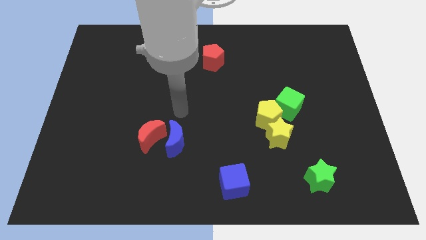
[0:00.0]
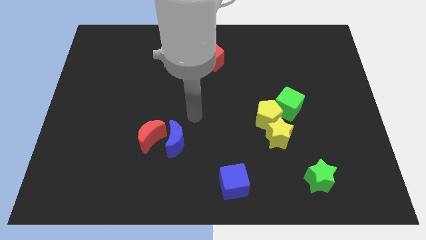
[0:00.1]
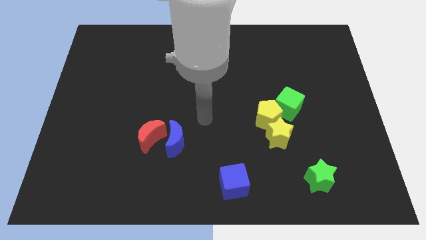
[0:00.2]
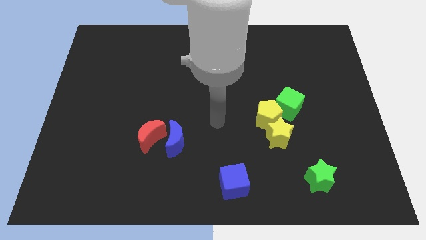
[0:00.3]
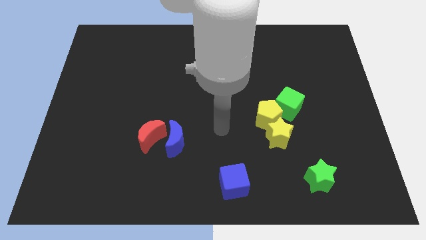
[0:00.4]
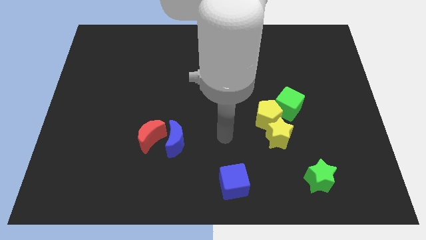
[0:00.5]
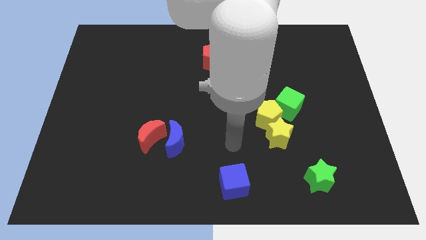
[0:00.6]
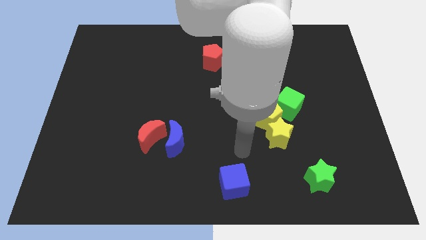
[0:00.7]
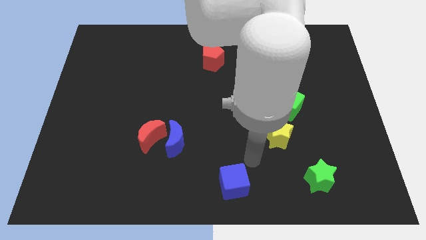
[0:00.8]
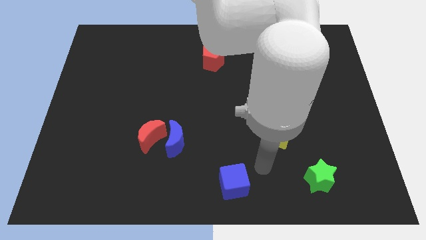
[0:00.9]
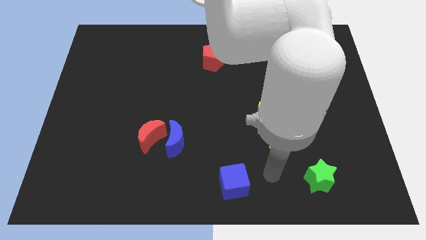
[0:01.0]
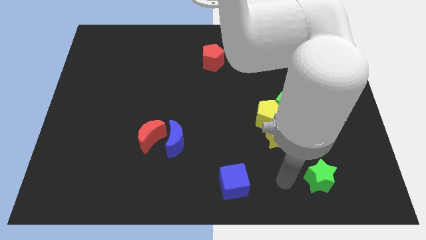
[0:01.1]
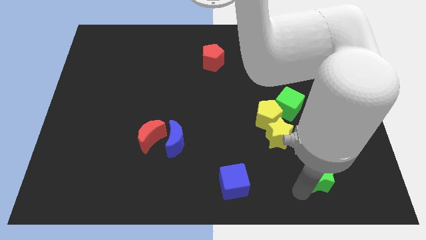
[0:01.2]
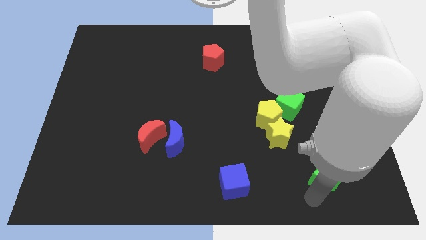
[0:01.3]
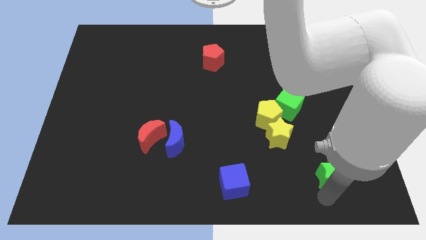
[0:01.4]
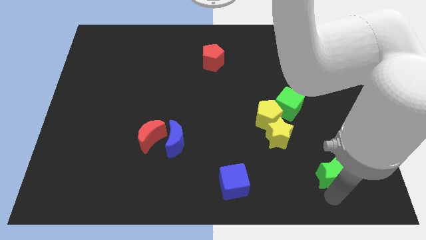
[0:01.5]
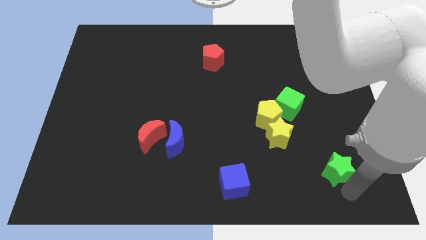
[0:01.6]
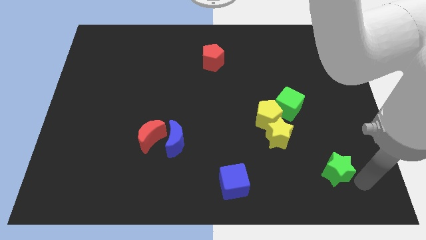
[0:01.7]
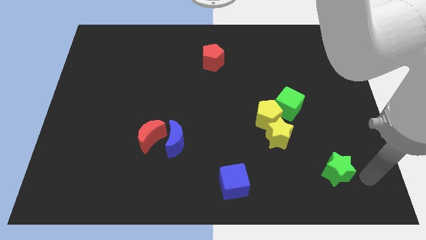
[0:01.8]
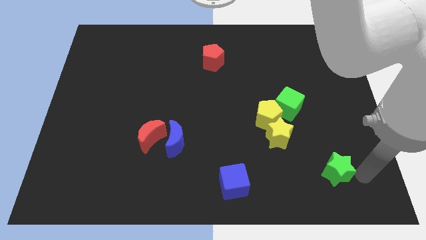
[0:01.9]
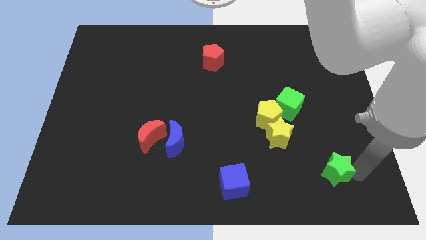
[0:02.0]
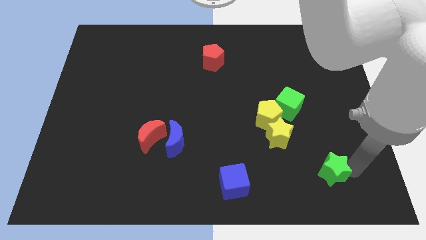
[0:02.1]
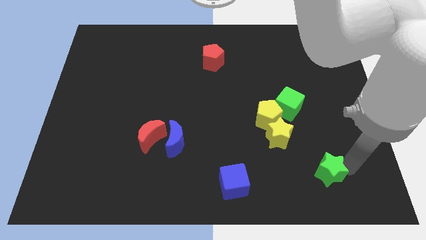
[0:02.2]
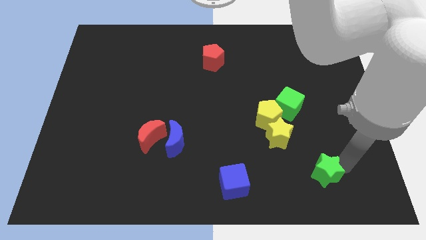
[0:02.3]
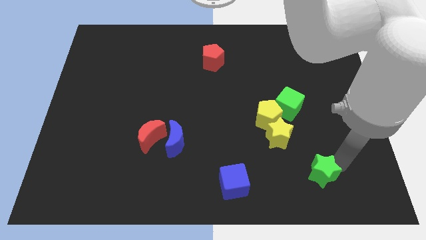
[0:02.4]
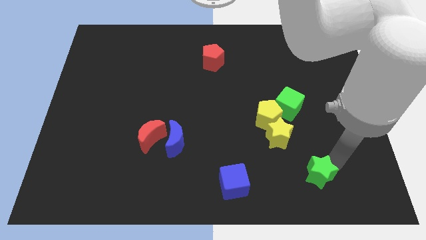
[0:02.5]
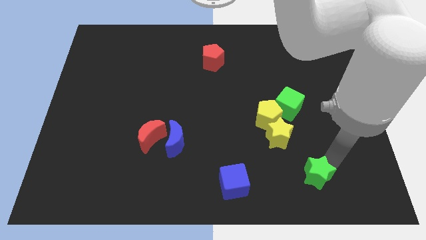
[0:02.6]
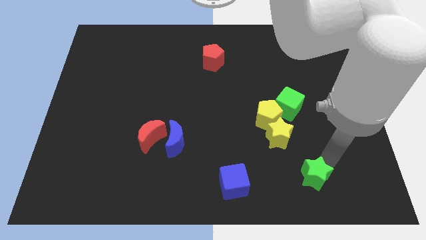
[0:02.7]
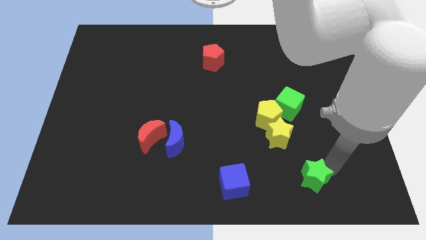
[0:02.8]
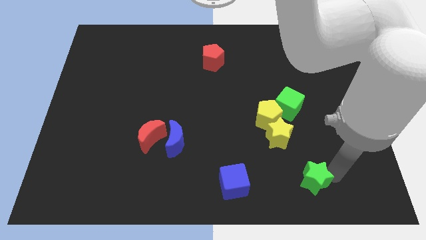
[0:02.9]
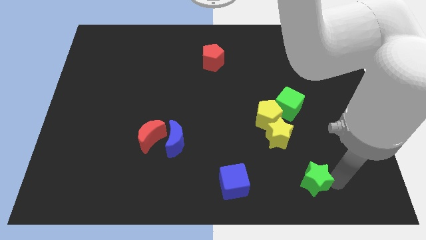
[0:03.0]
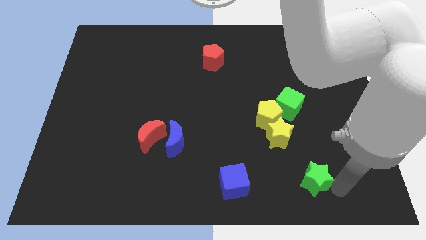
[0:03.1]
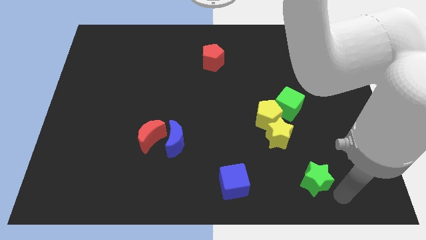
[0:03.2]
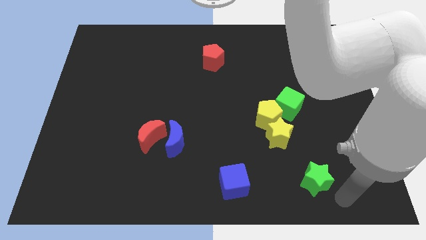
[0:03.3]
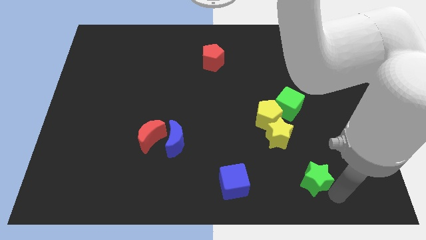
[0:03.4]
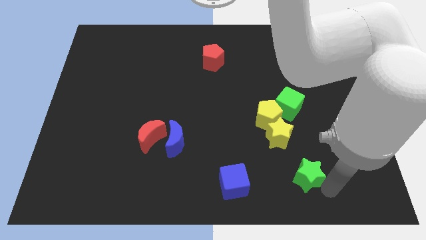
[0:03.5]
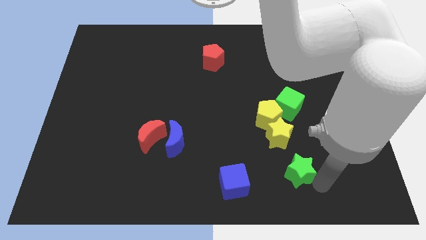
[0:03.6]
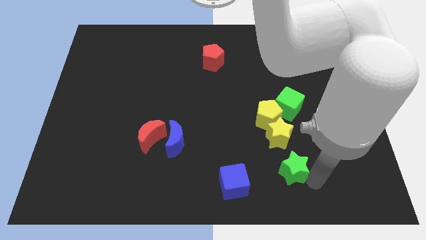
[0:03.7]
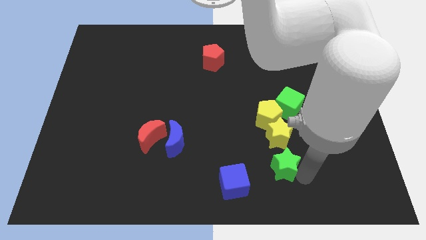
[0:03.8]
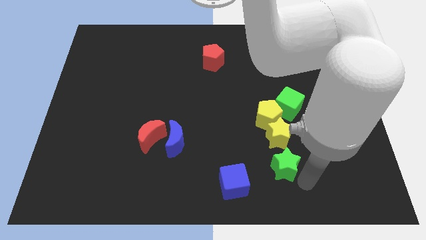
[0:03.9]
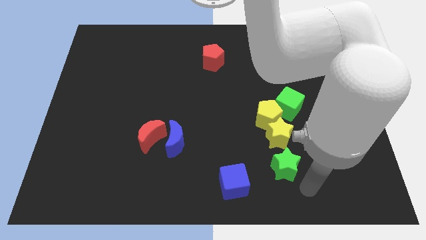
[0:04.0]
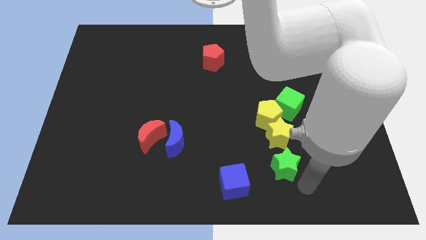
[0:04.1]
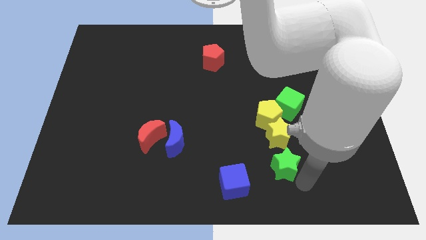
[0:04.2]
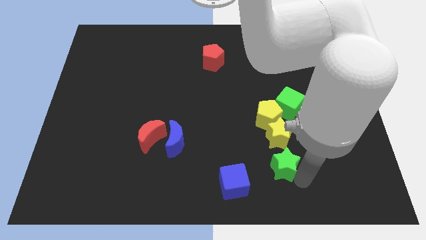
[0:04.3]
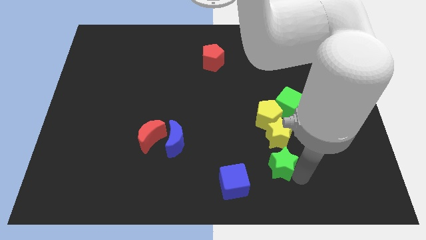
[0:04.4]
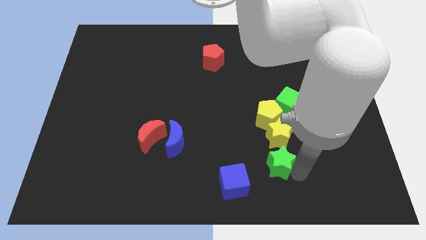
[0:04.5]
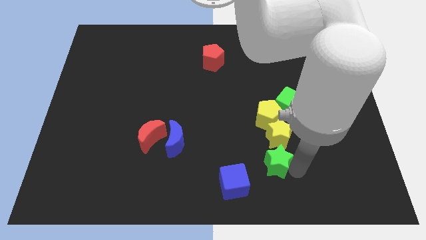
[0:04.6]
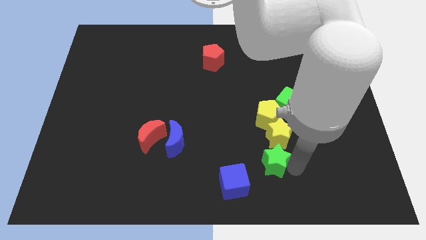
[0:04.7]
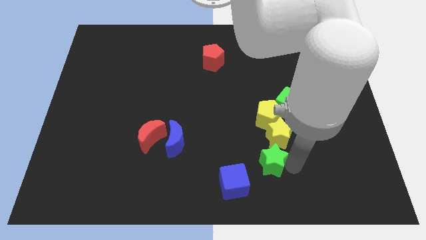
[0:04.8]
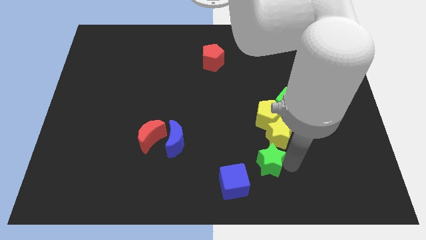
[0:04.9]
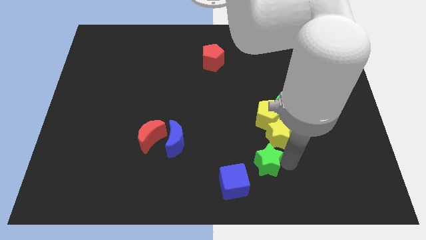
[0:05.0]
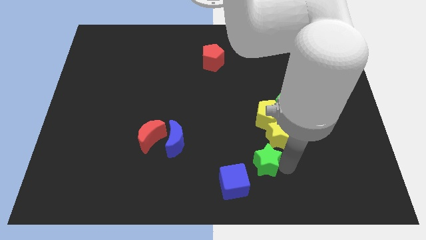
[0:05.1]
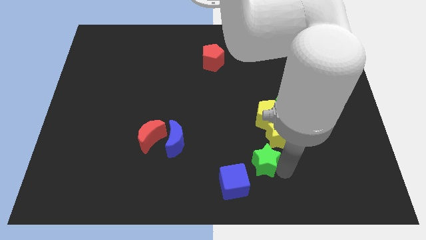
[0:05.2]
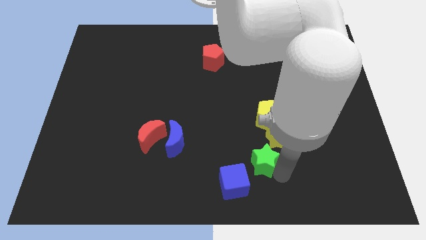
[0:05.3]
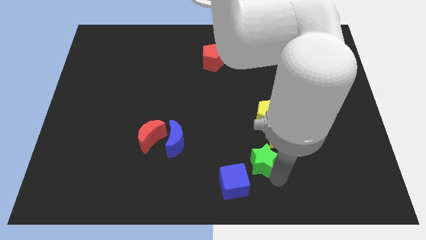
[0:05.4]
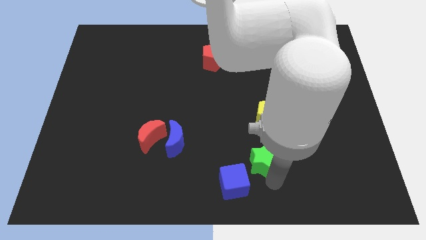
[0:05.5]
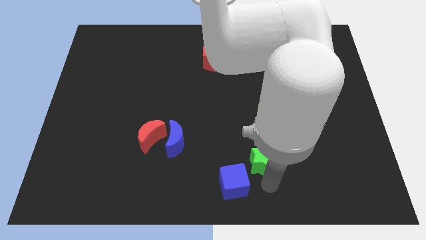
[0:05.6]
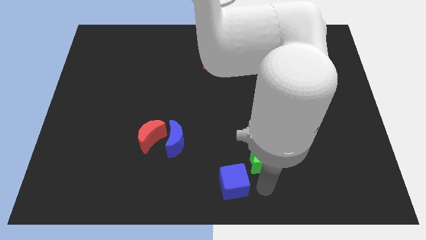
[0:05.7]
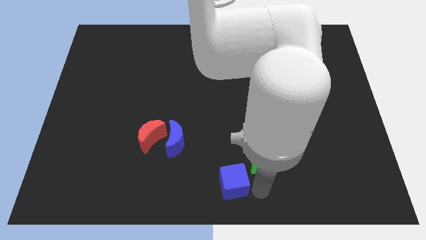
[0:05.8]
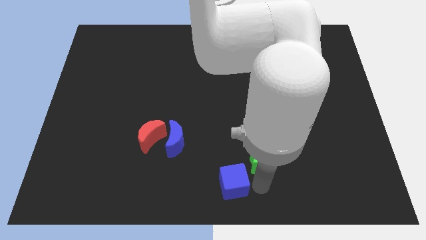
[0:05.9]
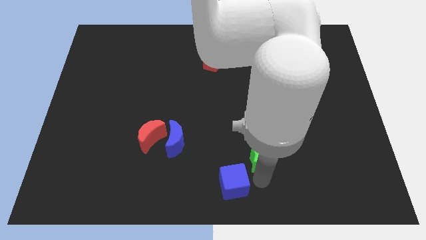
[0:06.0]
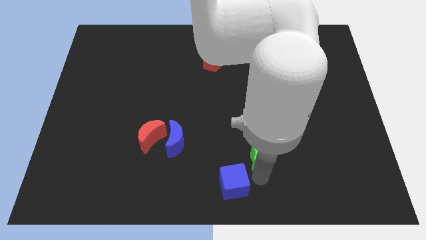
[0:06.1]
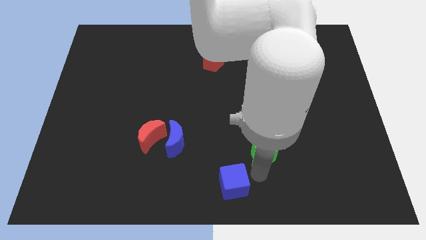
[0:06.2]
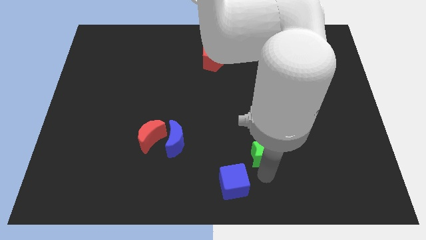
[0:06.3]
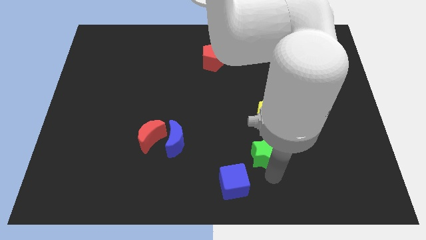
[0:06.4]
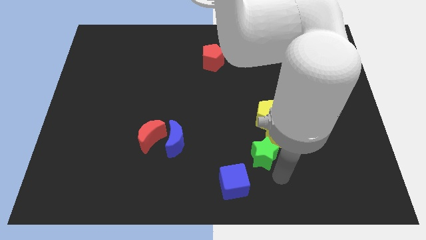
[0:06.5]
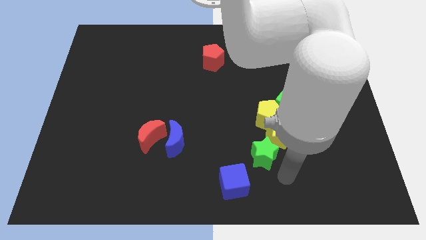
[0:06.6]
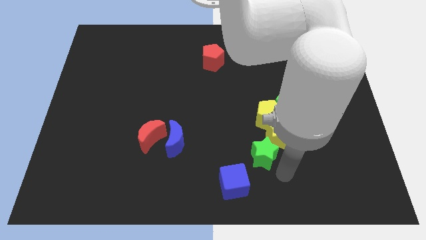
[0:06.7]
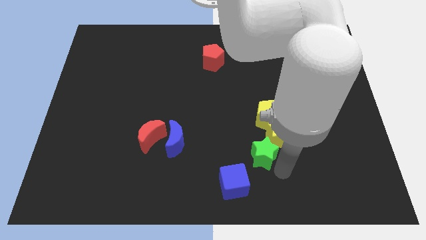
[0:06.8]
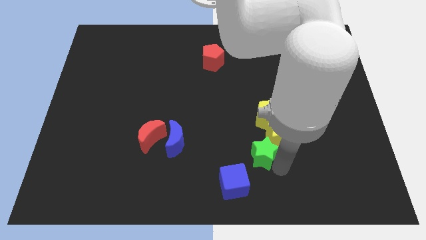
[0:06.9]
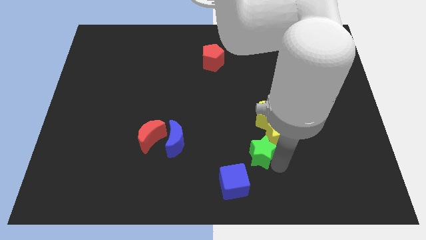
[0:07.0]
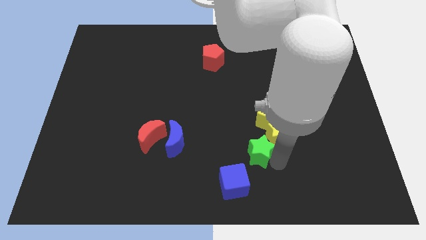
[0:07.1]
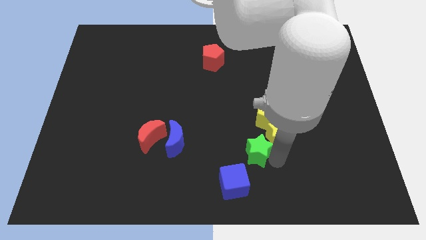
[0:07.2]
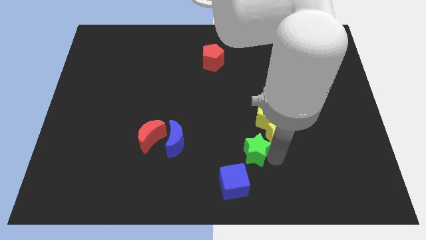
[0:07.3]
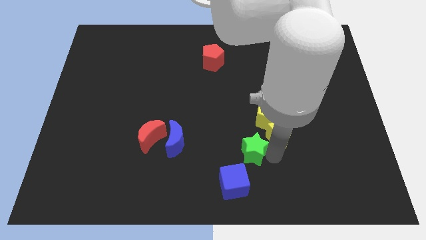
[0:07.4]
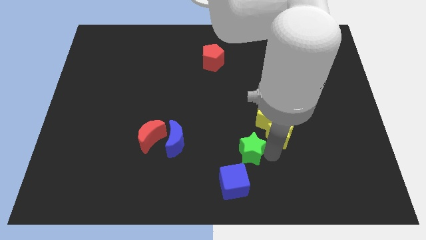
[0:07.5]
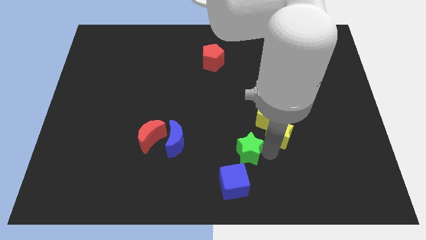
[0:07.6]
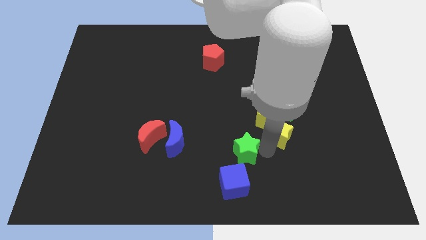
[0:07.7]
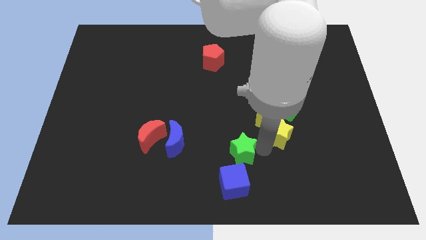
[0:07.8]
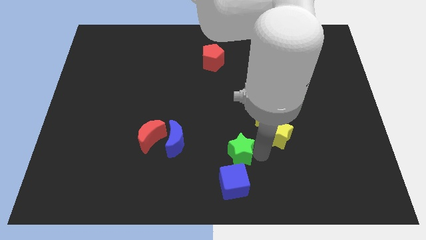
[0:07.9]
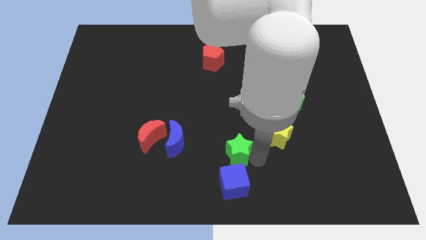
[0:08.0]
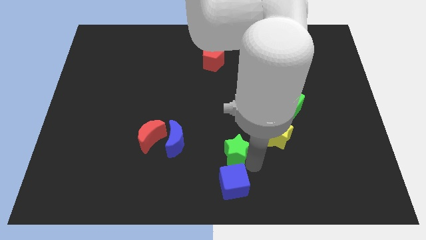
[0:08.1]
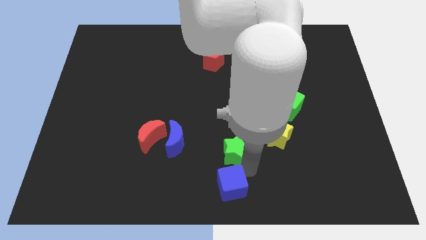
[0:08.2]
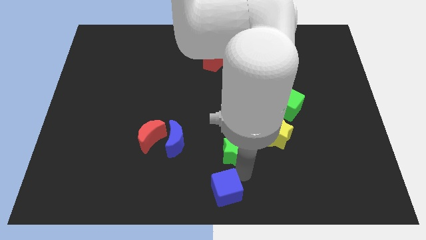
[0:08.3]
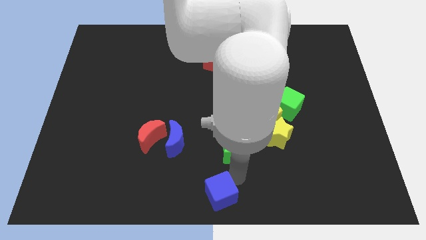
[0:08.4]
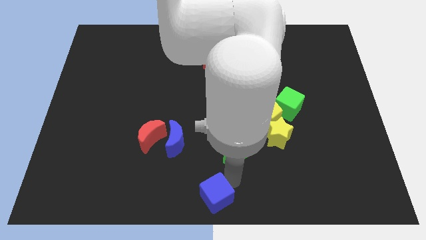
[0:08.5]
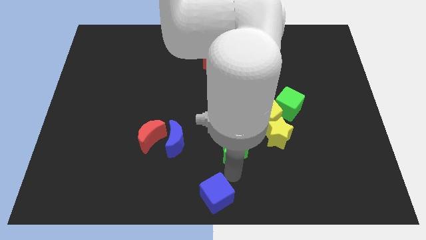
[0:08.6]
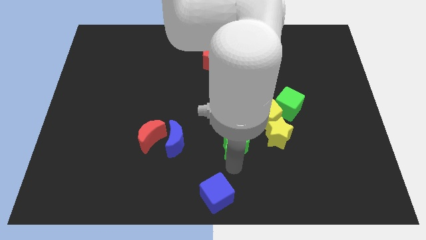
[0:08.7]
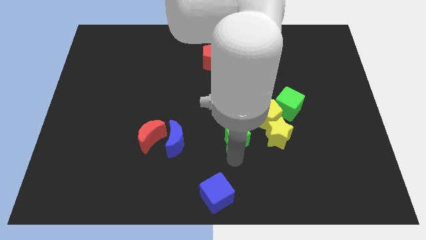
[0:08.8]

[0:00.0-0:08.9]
slide the green star to the center
